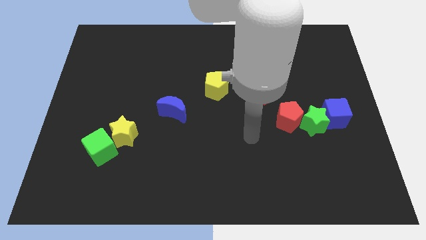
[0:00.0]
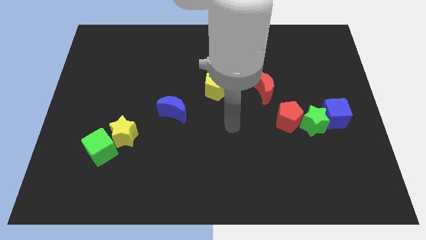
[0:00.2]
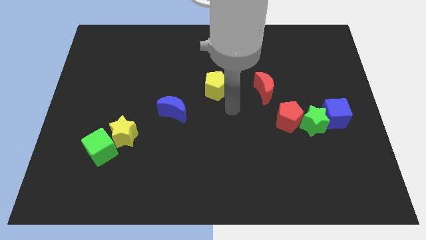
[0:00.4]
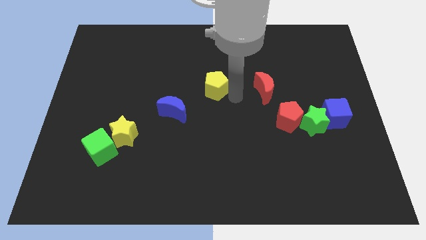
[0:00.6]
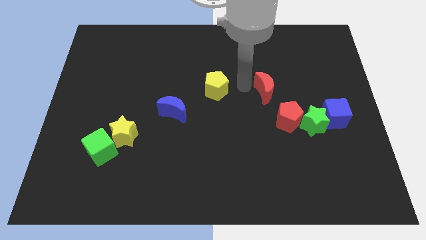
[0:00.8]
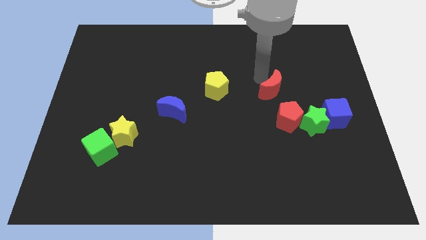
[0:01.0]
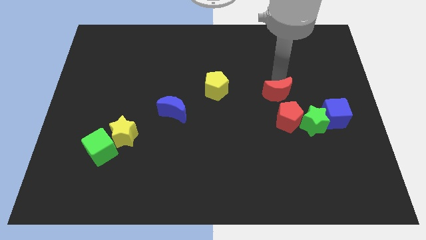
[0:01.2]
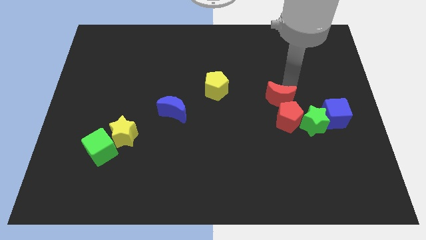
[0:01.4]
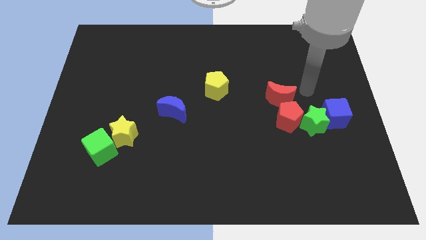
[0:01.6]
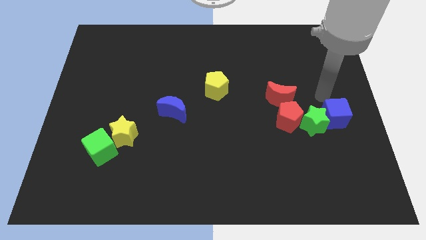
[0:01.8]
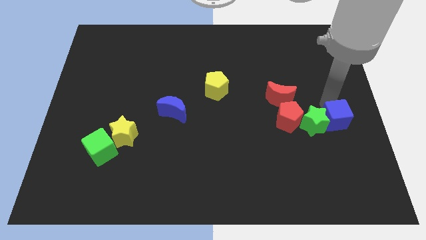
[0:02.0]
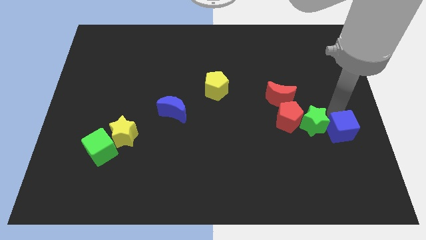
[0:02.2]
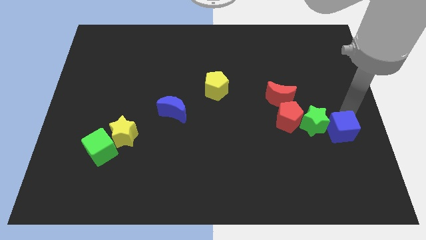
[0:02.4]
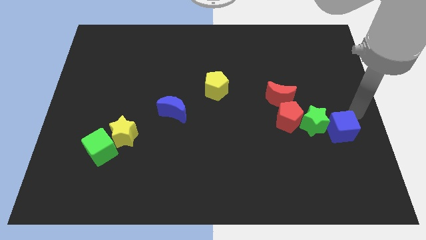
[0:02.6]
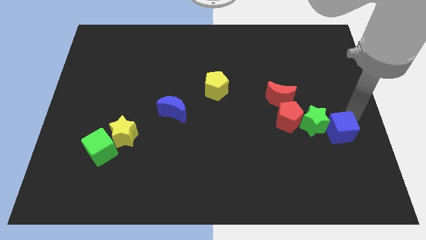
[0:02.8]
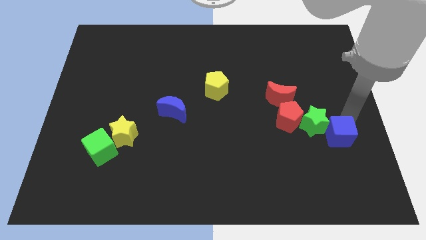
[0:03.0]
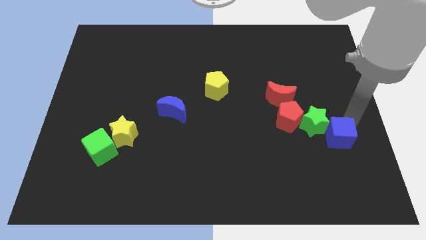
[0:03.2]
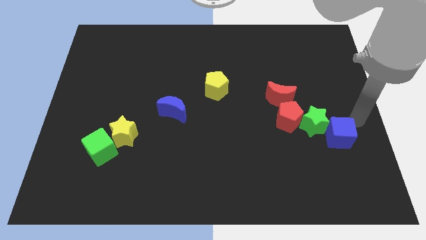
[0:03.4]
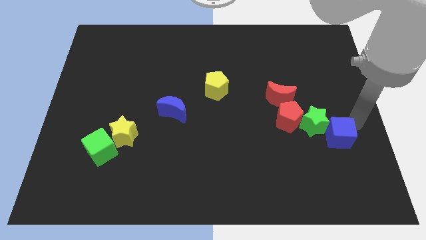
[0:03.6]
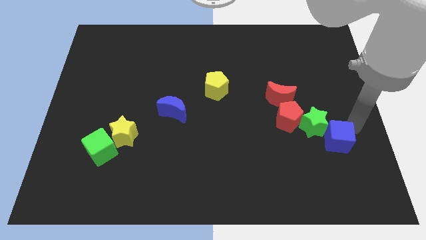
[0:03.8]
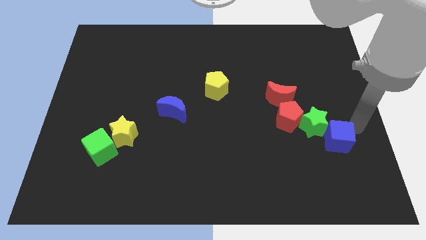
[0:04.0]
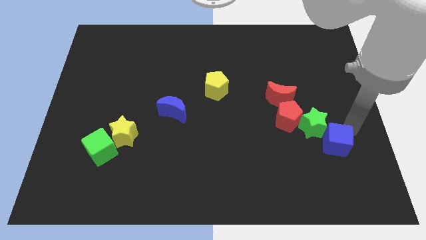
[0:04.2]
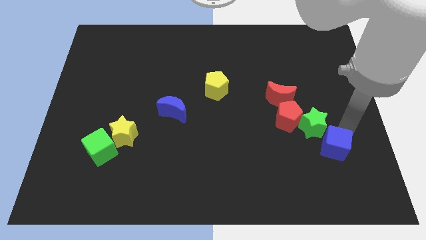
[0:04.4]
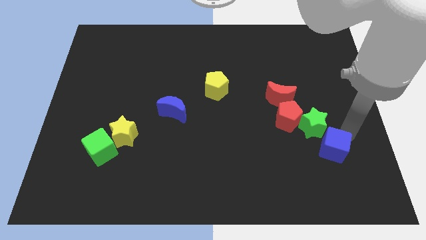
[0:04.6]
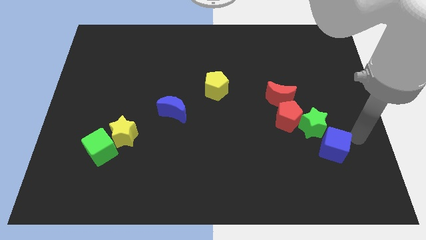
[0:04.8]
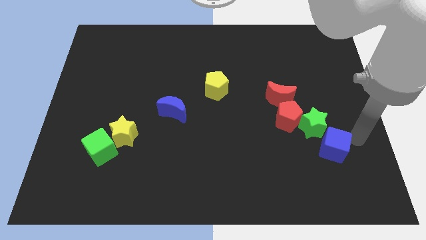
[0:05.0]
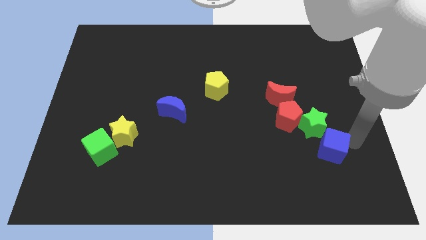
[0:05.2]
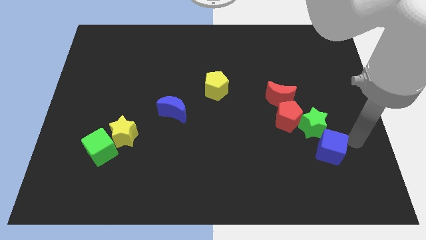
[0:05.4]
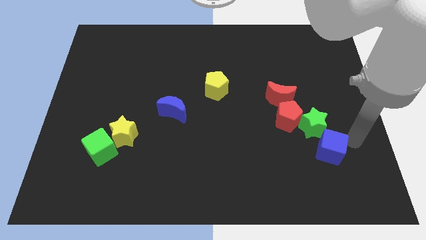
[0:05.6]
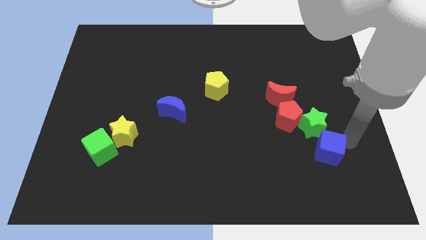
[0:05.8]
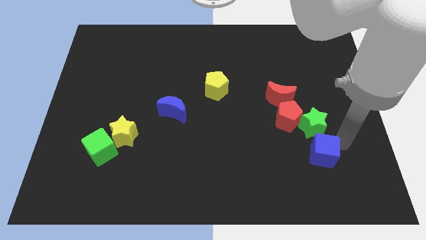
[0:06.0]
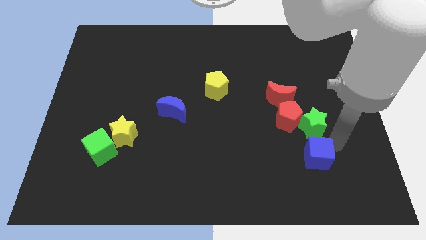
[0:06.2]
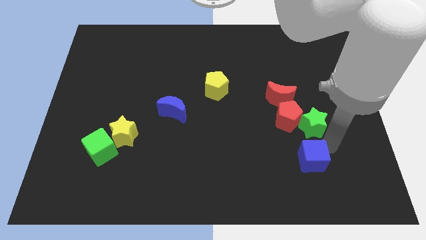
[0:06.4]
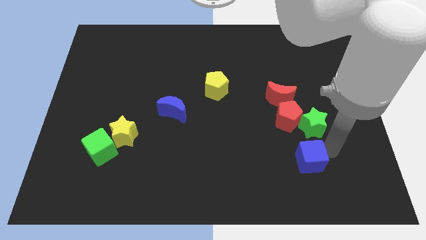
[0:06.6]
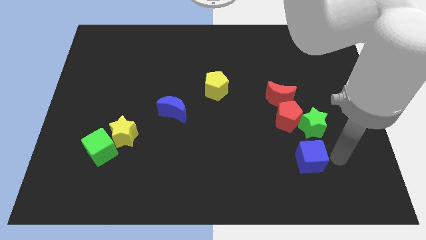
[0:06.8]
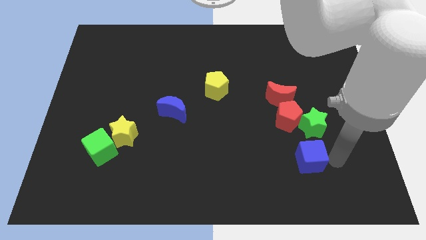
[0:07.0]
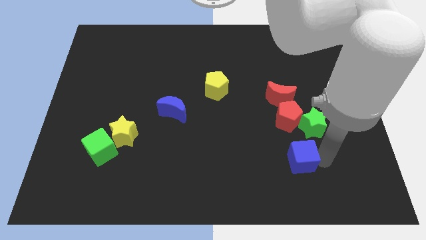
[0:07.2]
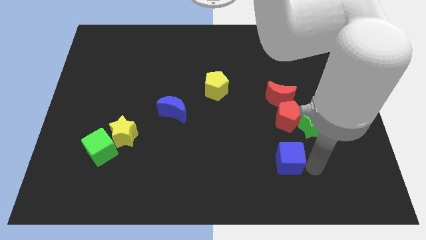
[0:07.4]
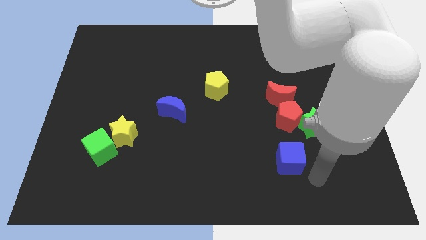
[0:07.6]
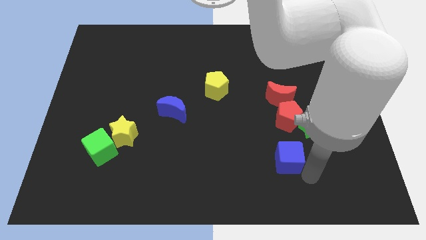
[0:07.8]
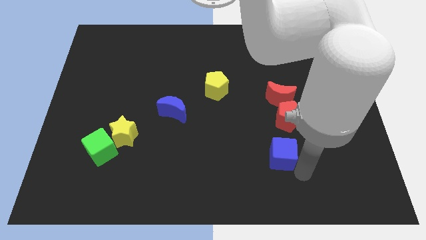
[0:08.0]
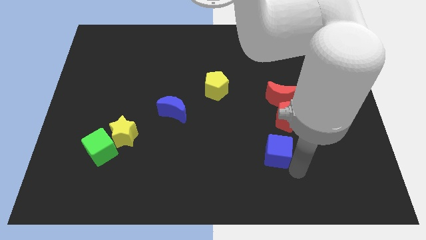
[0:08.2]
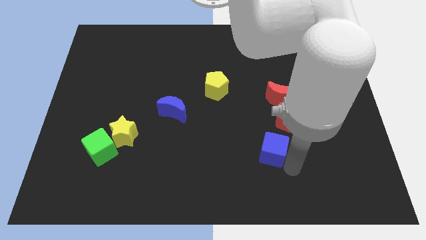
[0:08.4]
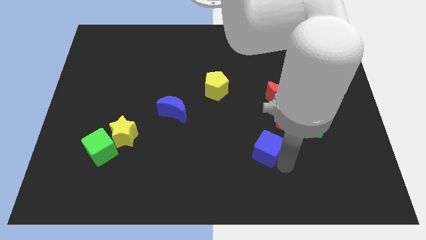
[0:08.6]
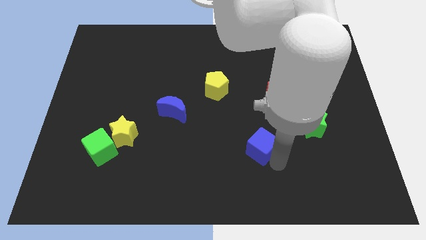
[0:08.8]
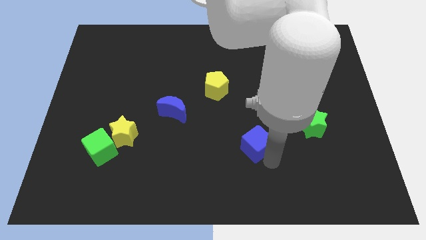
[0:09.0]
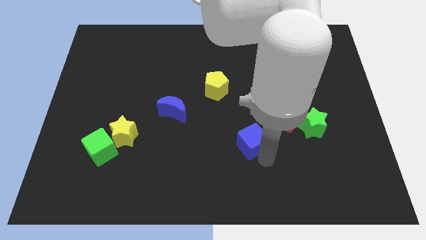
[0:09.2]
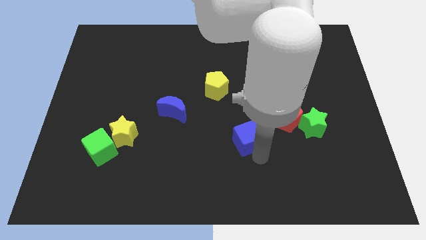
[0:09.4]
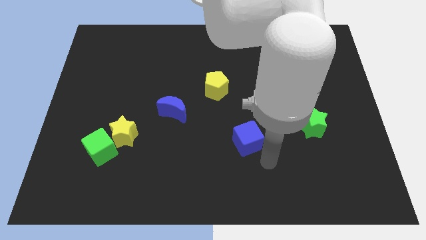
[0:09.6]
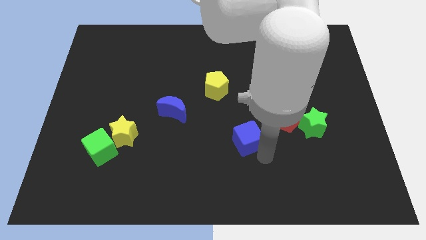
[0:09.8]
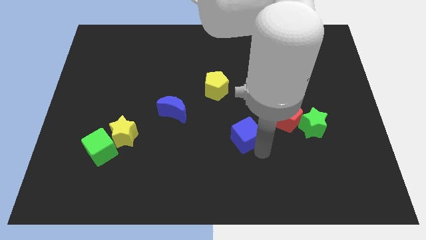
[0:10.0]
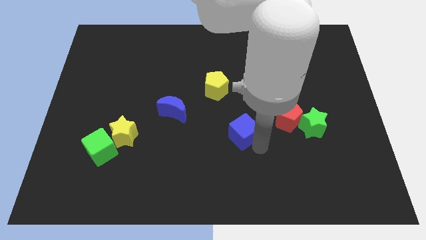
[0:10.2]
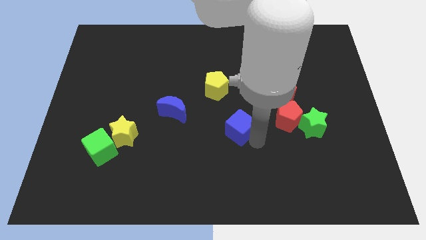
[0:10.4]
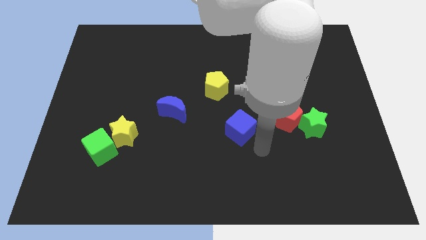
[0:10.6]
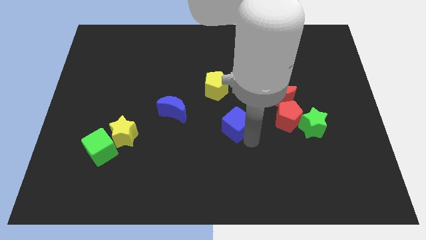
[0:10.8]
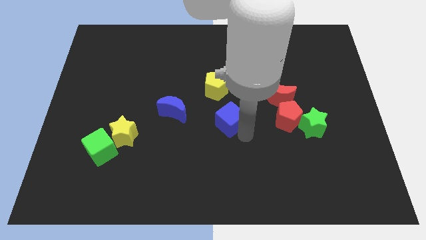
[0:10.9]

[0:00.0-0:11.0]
slide the blue cube to the right side of the blue moon

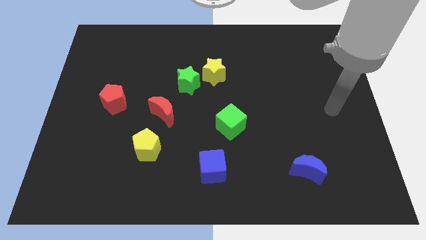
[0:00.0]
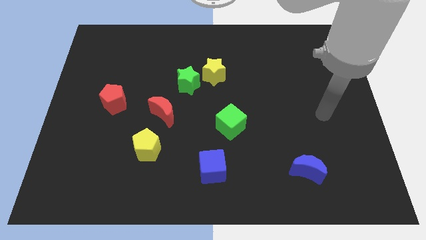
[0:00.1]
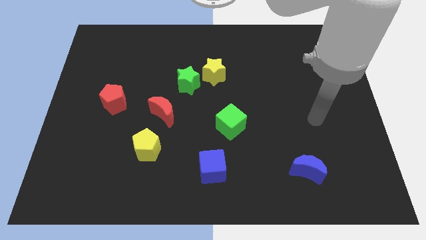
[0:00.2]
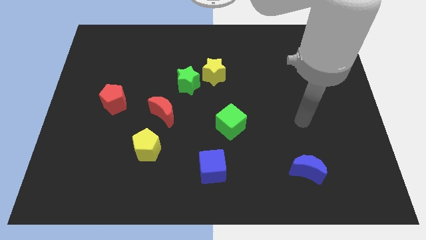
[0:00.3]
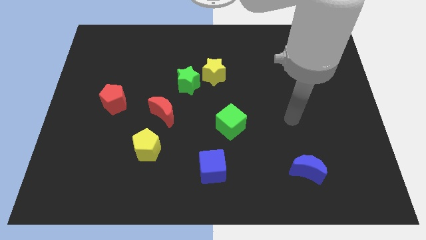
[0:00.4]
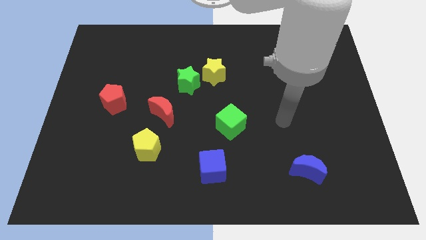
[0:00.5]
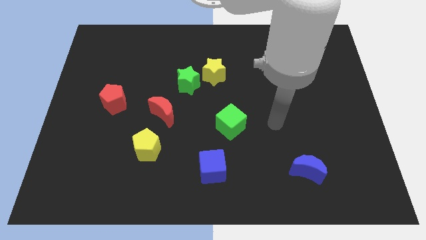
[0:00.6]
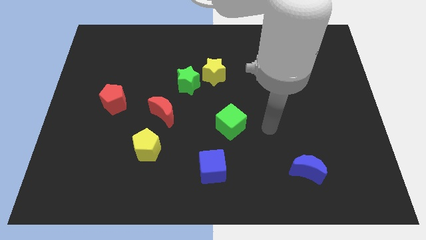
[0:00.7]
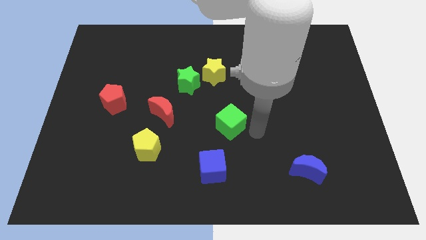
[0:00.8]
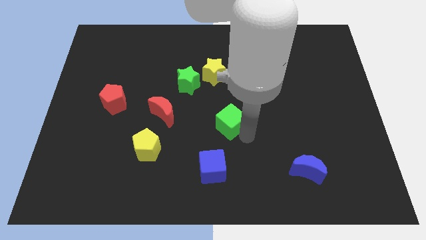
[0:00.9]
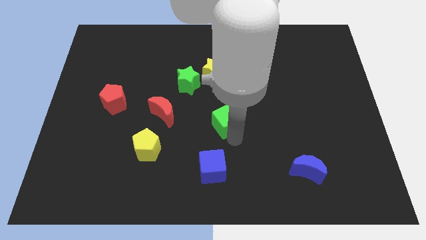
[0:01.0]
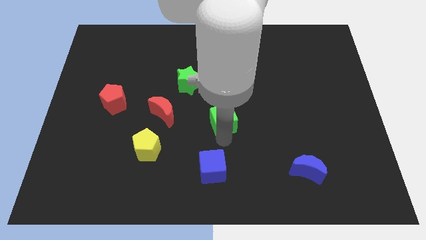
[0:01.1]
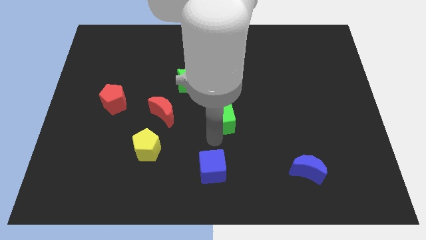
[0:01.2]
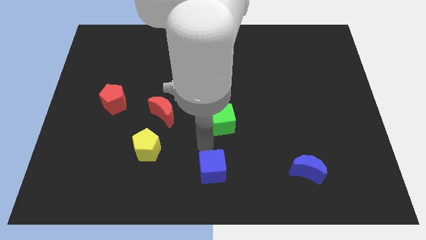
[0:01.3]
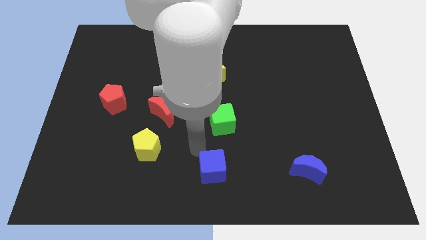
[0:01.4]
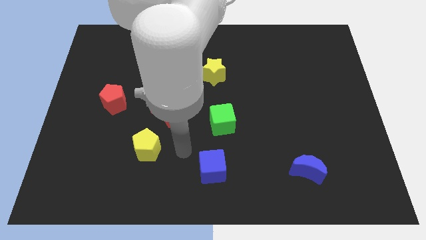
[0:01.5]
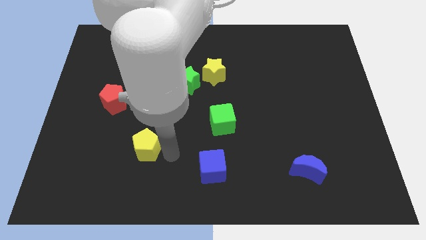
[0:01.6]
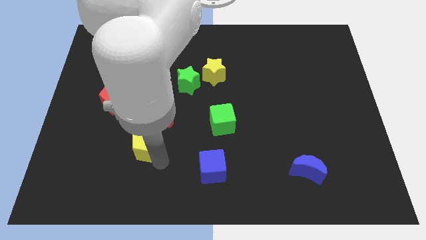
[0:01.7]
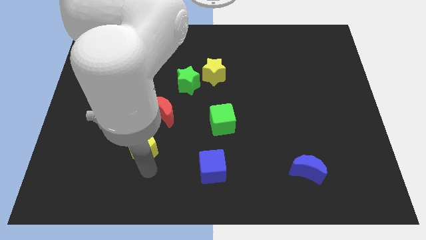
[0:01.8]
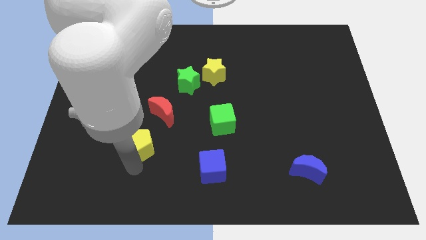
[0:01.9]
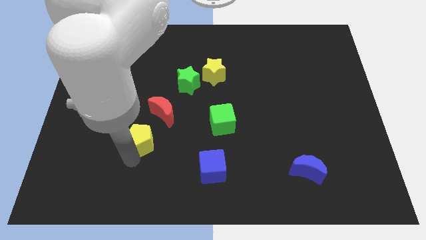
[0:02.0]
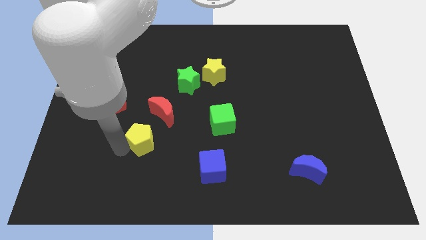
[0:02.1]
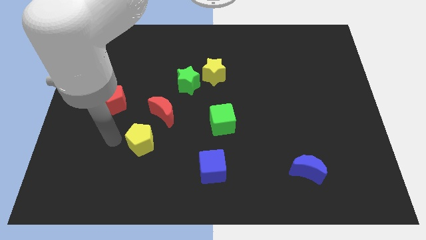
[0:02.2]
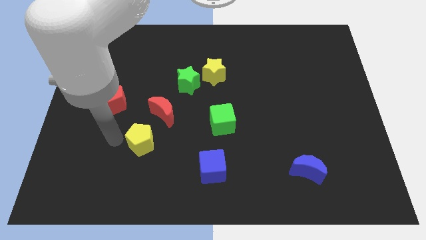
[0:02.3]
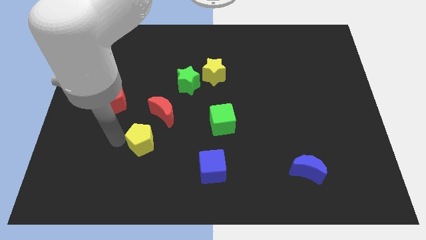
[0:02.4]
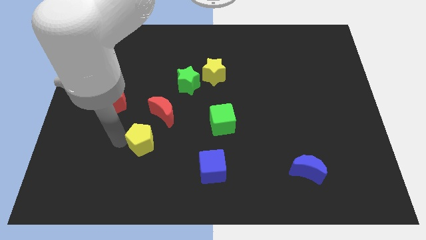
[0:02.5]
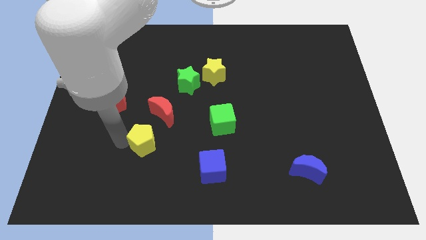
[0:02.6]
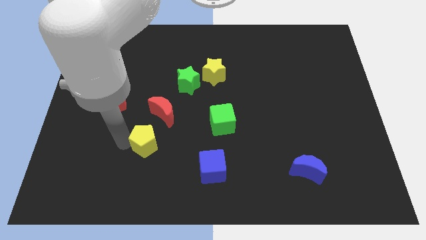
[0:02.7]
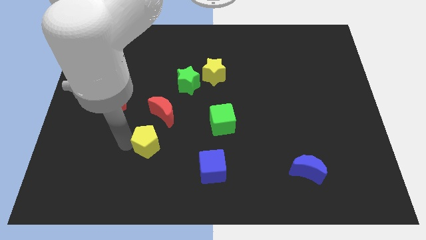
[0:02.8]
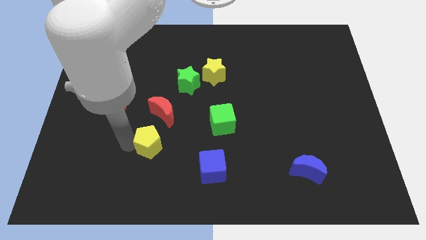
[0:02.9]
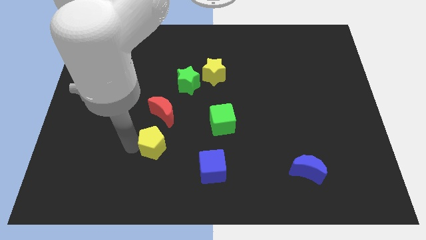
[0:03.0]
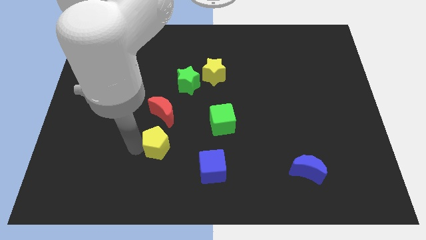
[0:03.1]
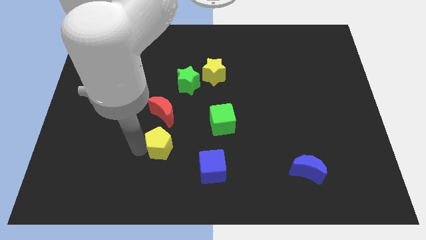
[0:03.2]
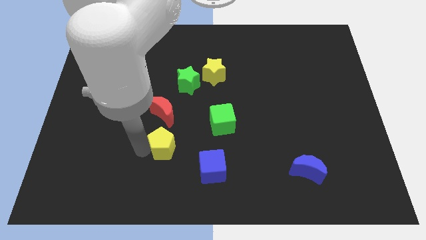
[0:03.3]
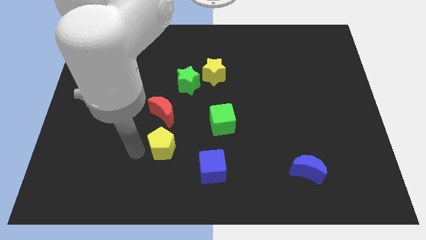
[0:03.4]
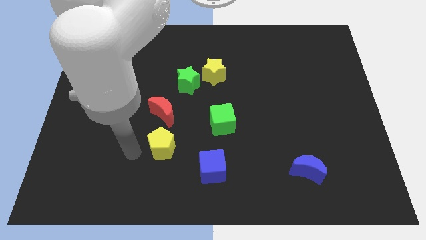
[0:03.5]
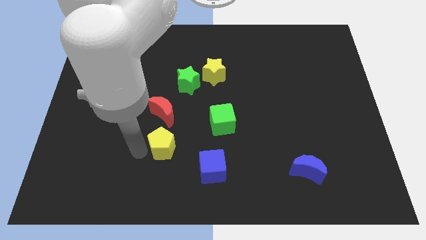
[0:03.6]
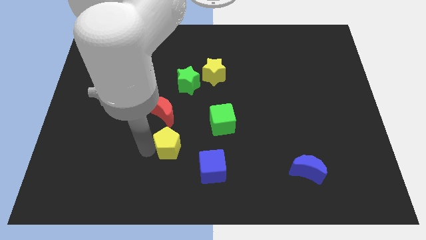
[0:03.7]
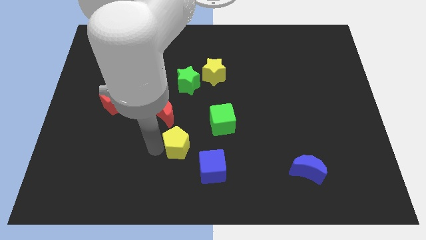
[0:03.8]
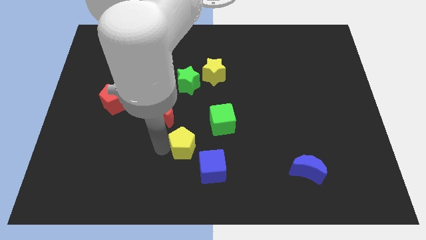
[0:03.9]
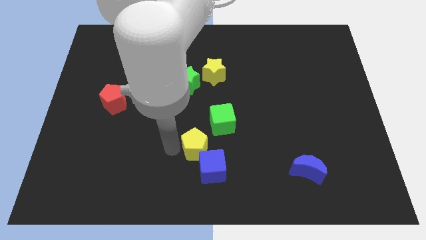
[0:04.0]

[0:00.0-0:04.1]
slide the yellow pentagon above the blue cube
